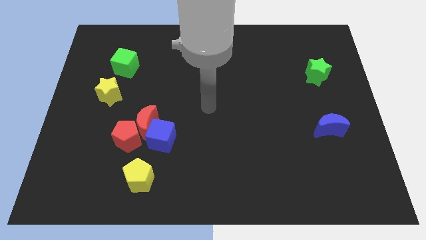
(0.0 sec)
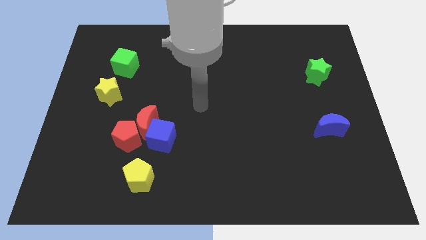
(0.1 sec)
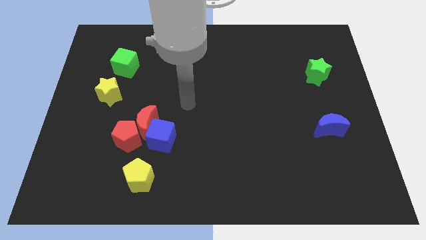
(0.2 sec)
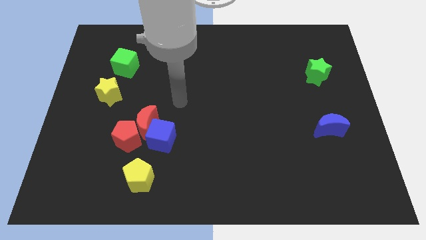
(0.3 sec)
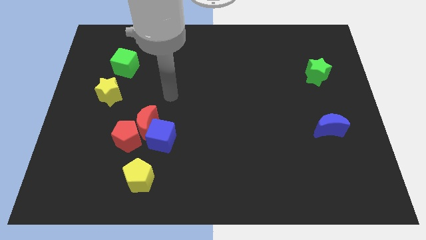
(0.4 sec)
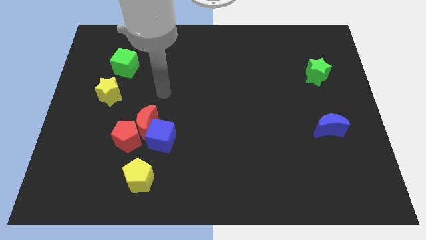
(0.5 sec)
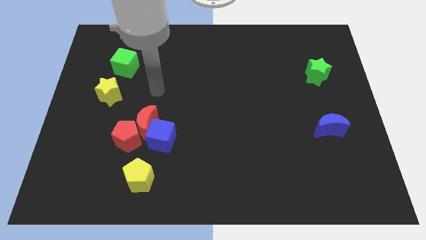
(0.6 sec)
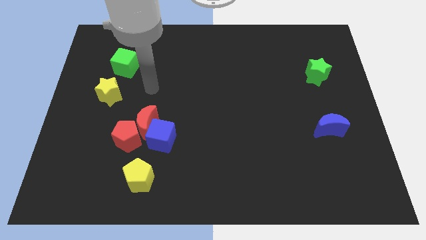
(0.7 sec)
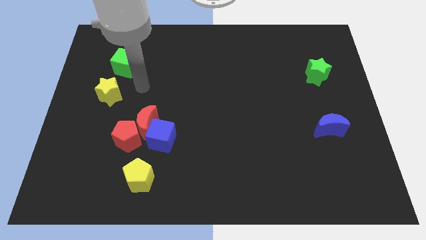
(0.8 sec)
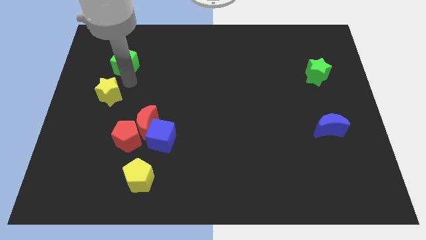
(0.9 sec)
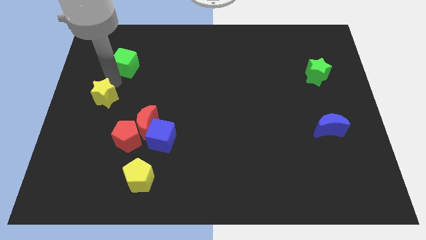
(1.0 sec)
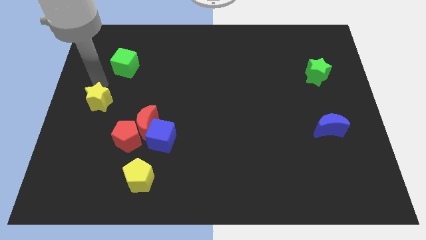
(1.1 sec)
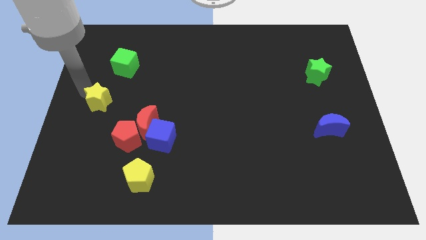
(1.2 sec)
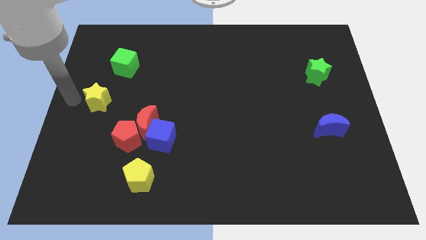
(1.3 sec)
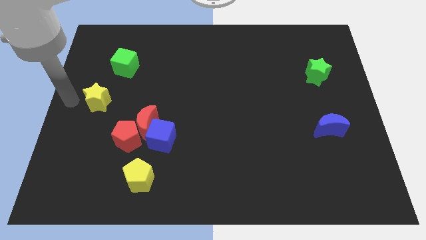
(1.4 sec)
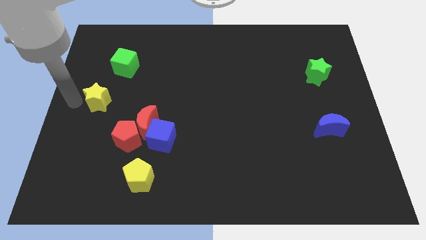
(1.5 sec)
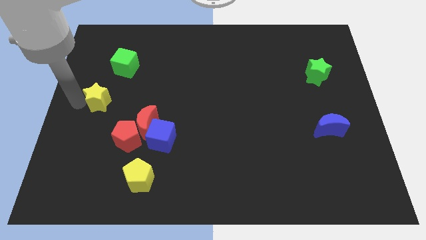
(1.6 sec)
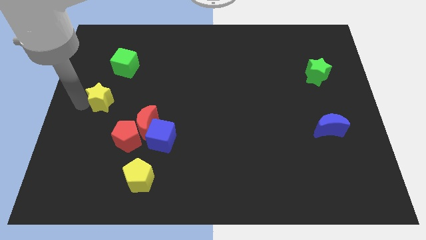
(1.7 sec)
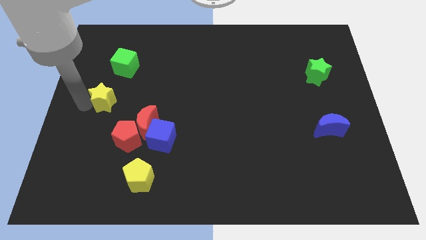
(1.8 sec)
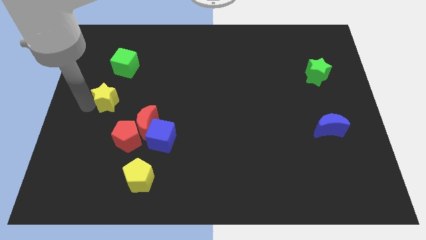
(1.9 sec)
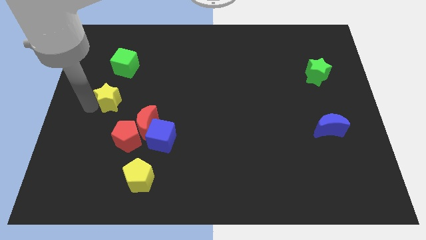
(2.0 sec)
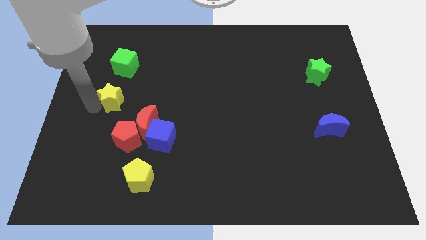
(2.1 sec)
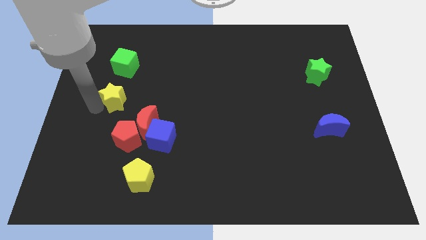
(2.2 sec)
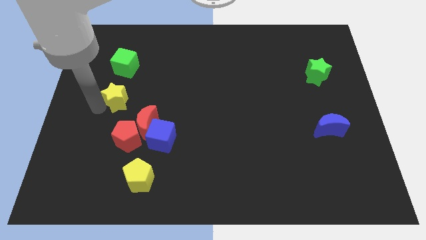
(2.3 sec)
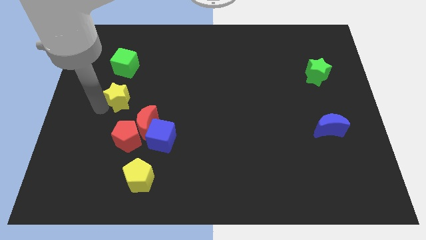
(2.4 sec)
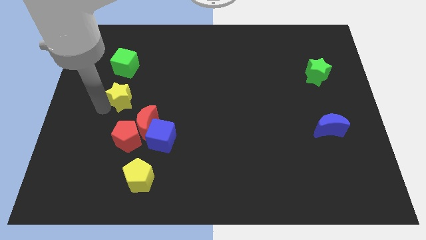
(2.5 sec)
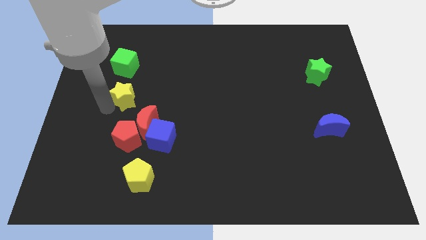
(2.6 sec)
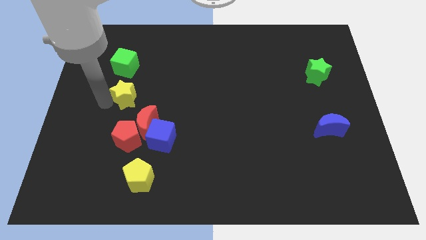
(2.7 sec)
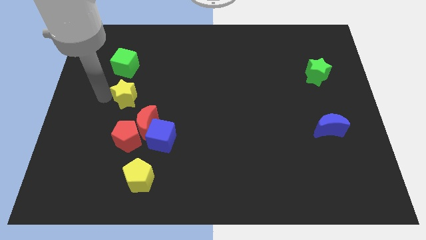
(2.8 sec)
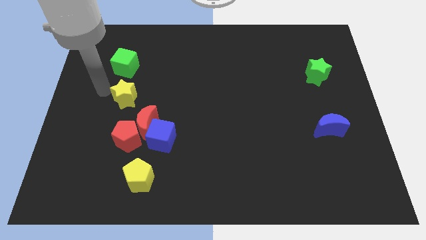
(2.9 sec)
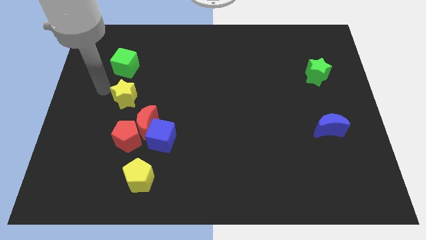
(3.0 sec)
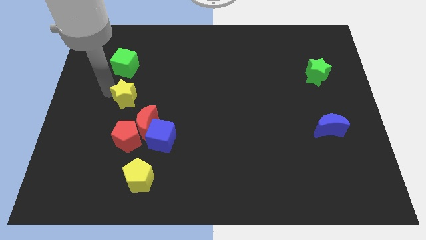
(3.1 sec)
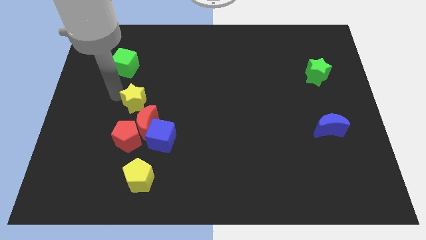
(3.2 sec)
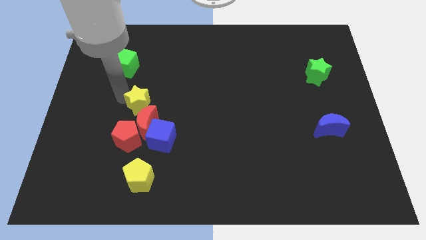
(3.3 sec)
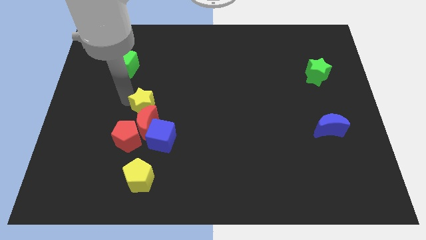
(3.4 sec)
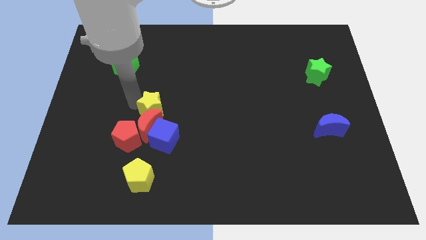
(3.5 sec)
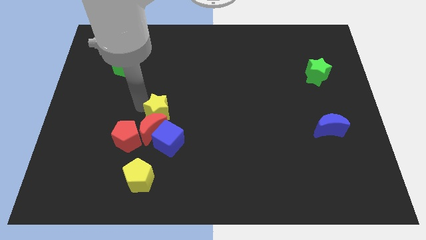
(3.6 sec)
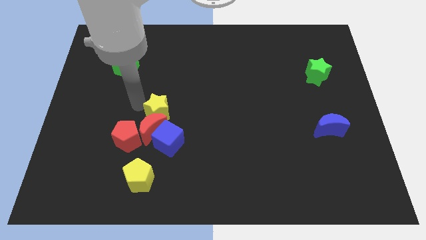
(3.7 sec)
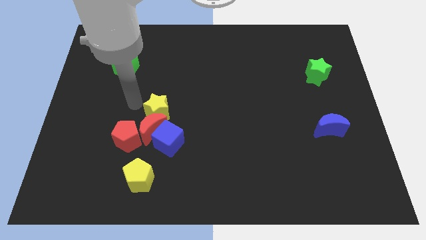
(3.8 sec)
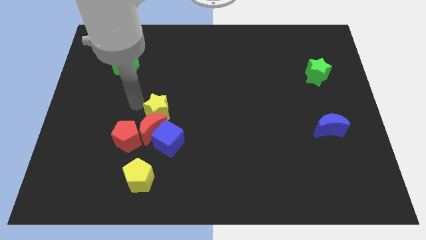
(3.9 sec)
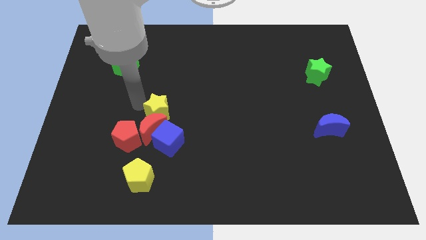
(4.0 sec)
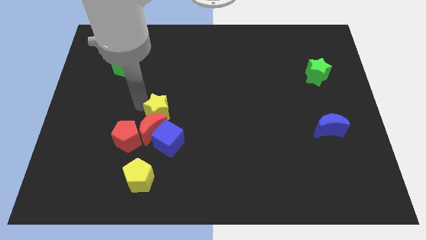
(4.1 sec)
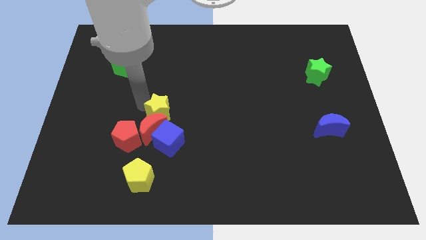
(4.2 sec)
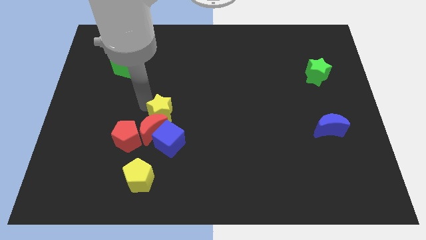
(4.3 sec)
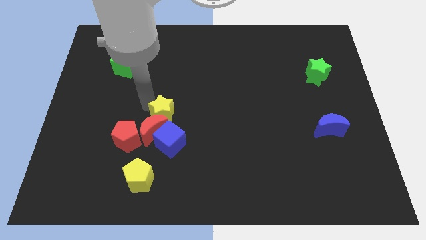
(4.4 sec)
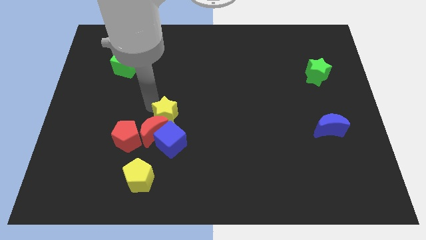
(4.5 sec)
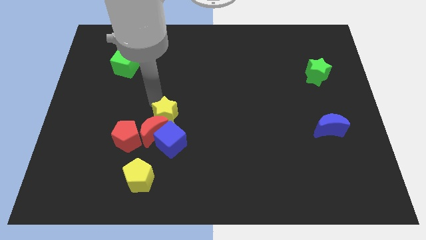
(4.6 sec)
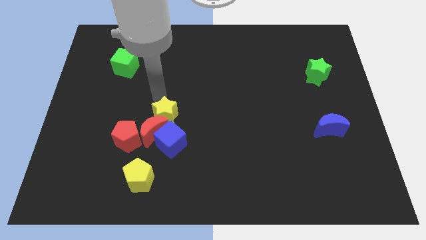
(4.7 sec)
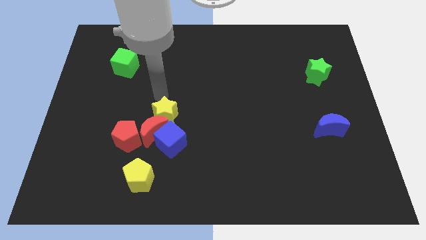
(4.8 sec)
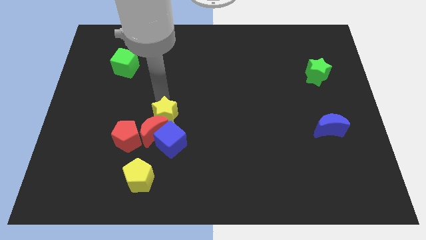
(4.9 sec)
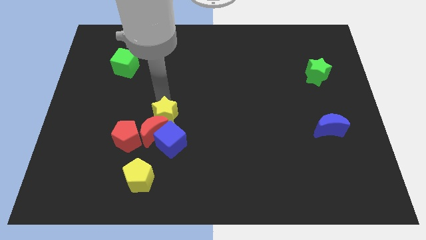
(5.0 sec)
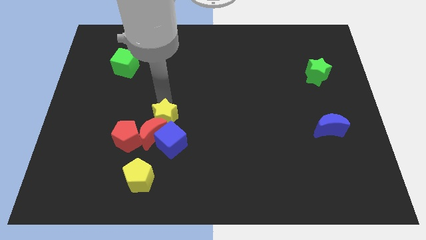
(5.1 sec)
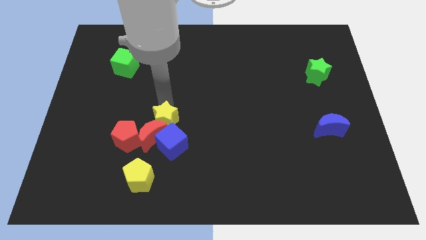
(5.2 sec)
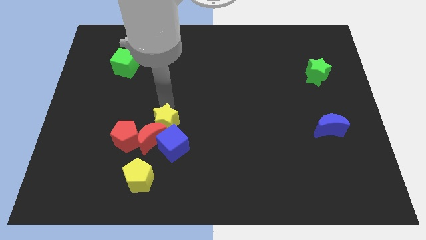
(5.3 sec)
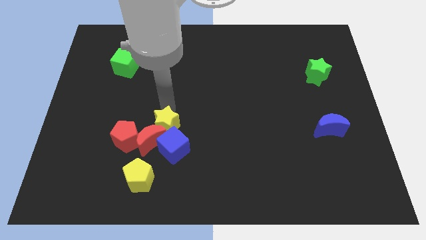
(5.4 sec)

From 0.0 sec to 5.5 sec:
push the yellow star to the blue cube

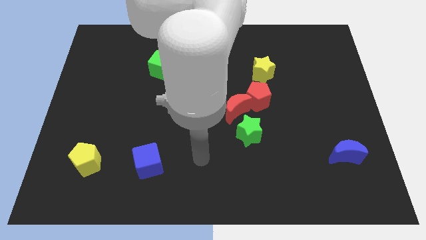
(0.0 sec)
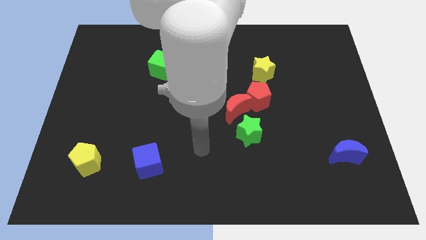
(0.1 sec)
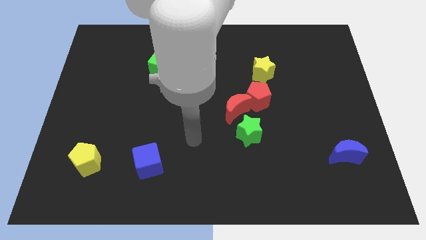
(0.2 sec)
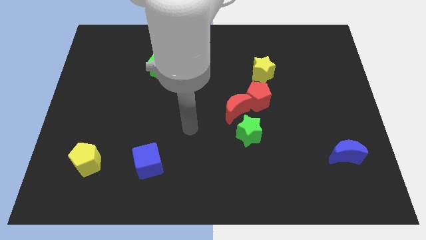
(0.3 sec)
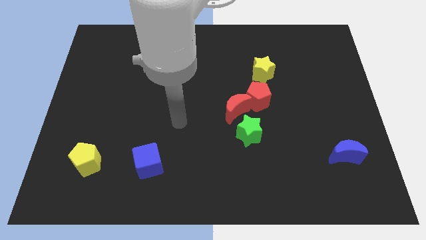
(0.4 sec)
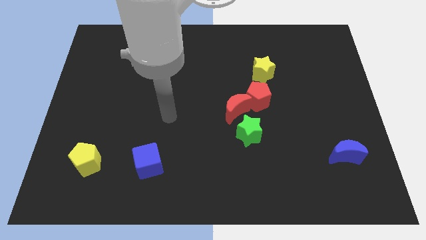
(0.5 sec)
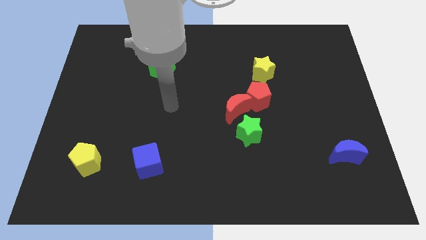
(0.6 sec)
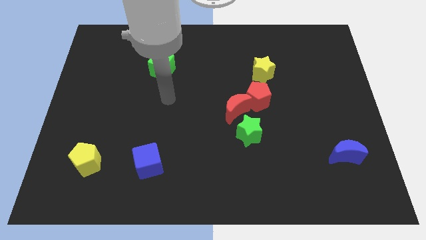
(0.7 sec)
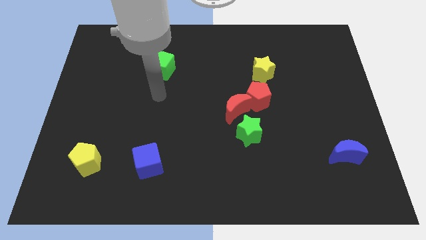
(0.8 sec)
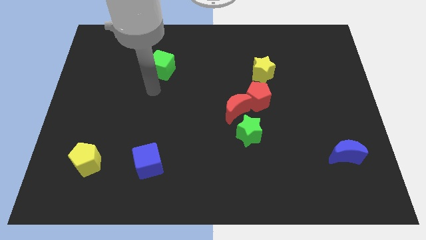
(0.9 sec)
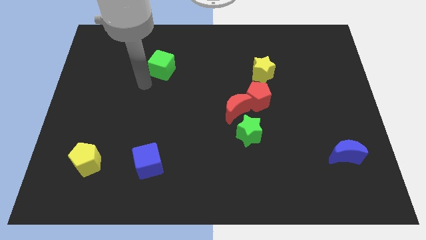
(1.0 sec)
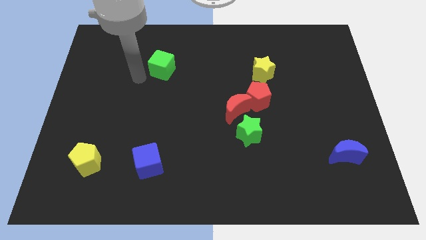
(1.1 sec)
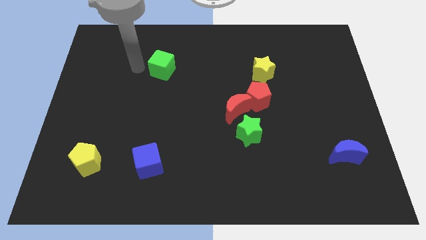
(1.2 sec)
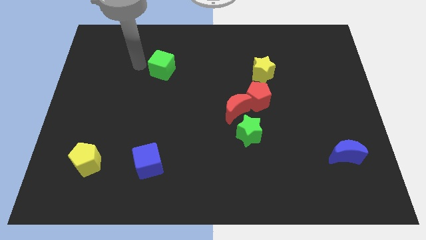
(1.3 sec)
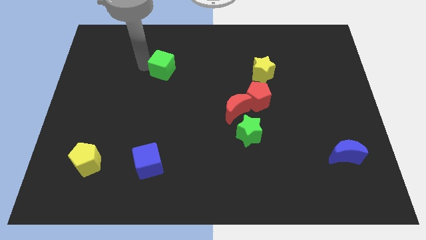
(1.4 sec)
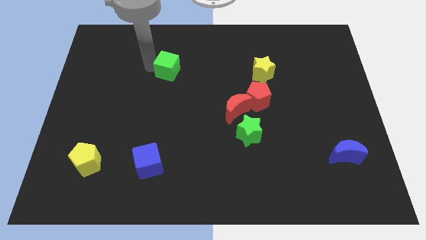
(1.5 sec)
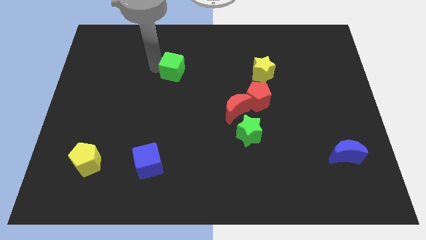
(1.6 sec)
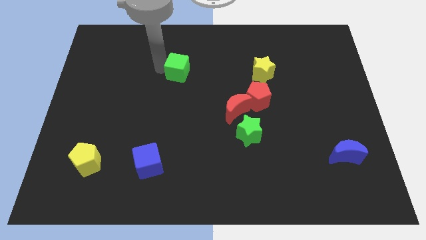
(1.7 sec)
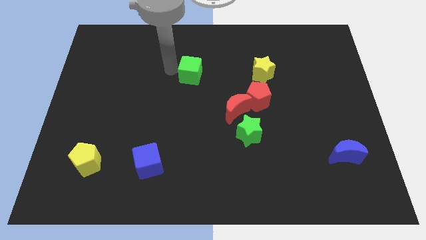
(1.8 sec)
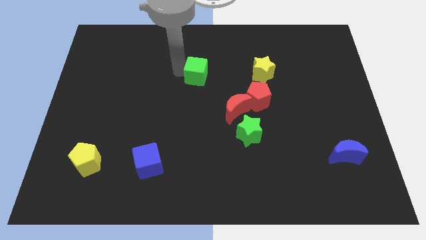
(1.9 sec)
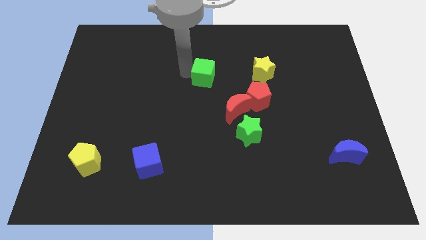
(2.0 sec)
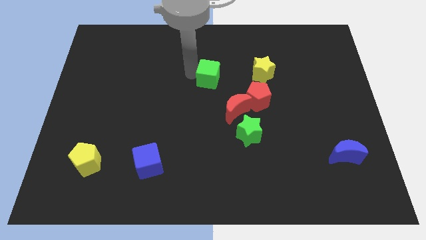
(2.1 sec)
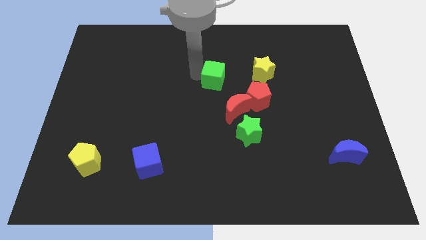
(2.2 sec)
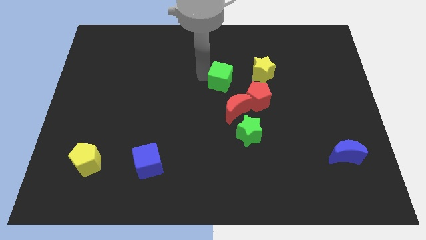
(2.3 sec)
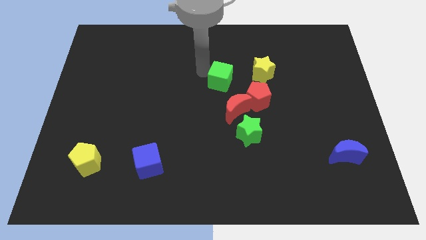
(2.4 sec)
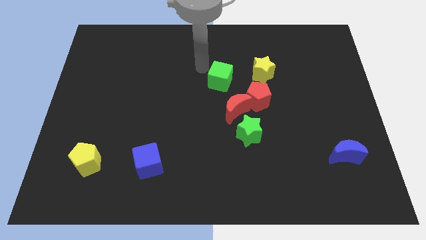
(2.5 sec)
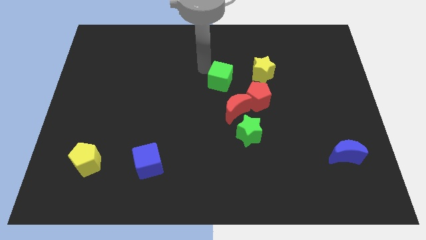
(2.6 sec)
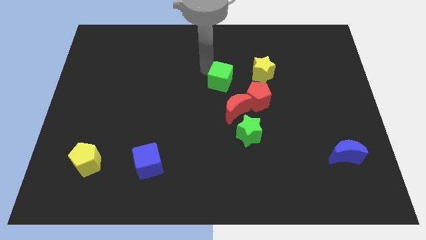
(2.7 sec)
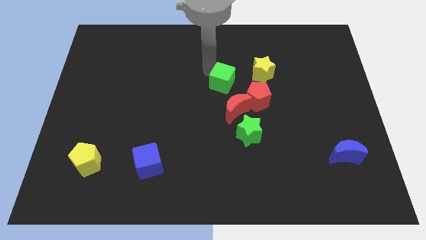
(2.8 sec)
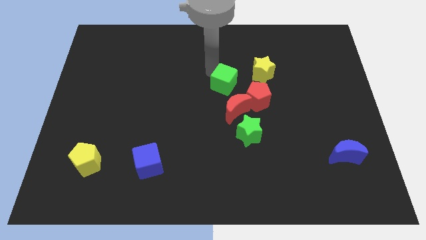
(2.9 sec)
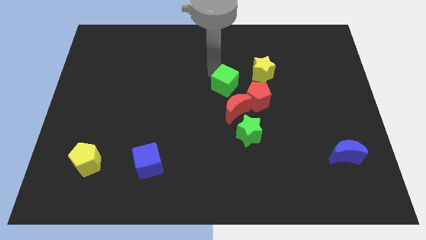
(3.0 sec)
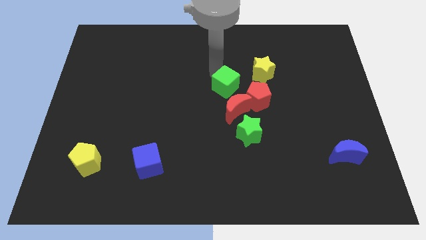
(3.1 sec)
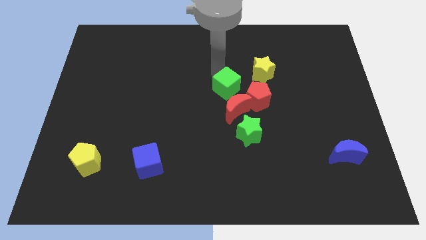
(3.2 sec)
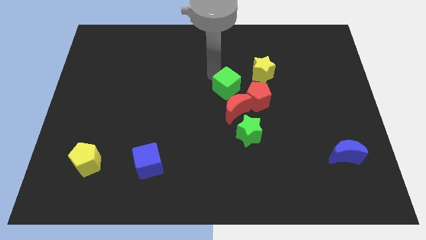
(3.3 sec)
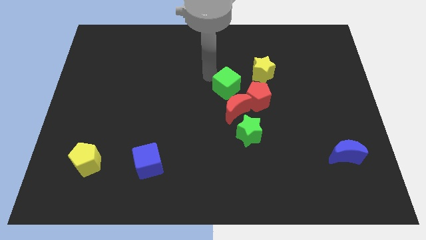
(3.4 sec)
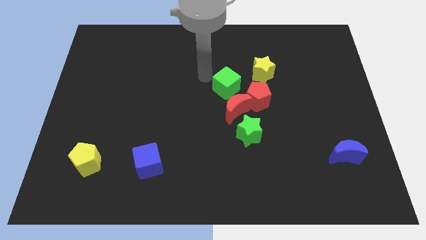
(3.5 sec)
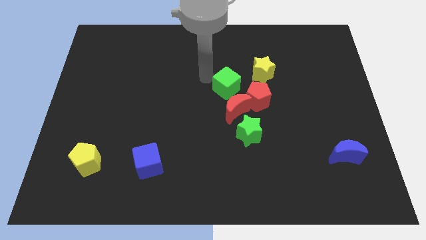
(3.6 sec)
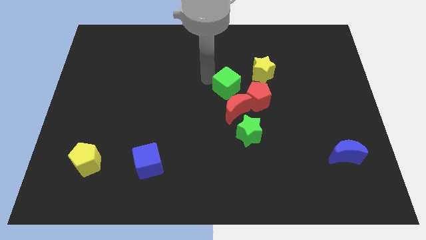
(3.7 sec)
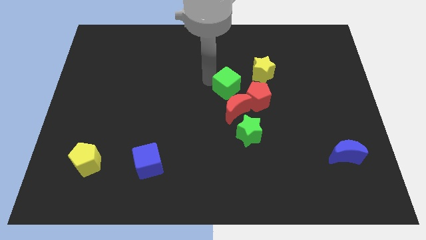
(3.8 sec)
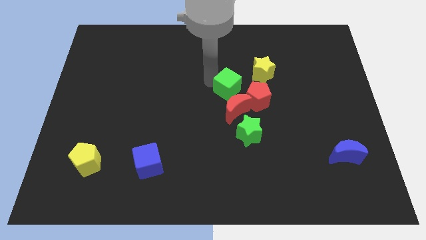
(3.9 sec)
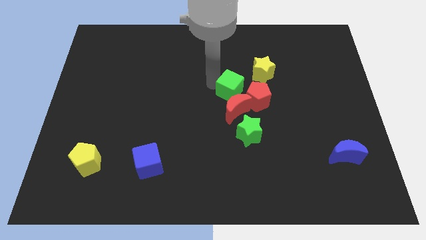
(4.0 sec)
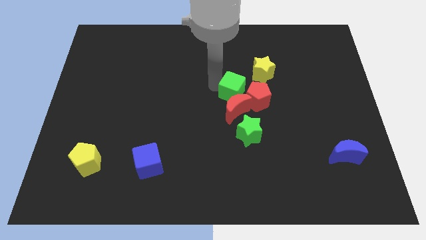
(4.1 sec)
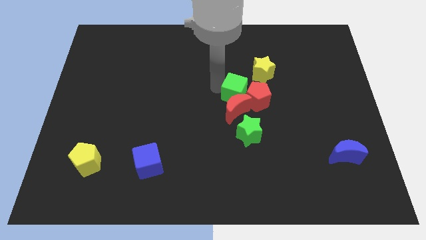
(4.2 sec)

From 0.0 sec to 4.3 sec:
move the green cube next to the red pentagon
